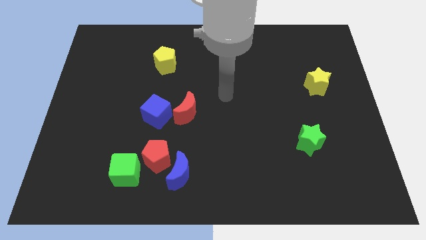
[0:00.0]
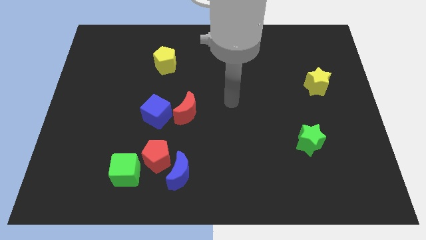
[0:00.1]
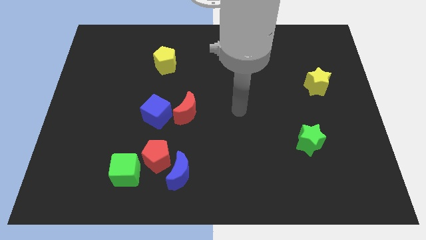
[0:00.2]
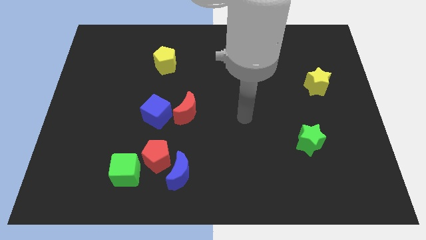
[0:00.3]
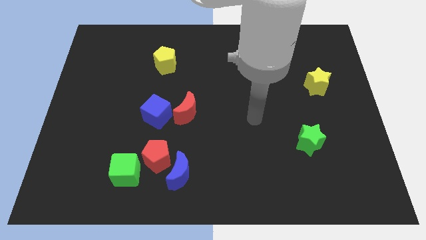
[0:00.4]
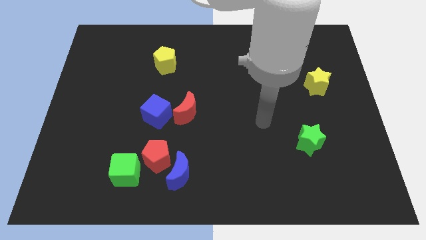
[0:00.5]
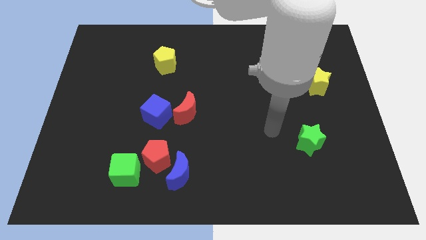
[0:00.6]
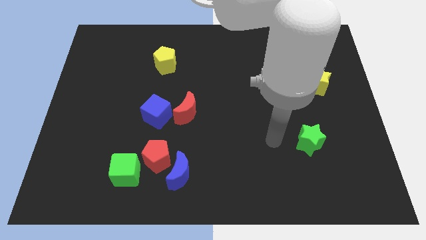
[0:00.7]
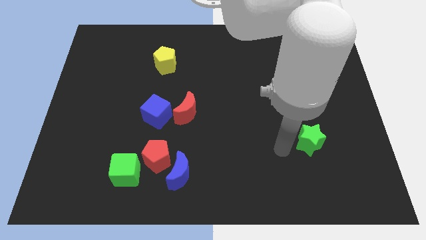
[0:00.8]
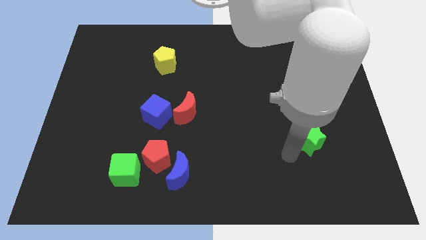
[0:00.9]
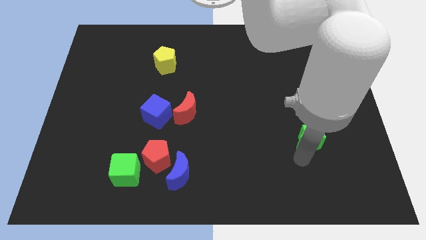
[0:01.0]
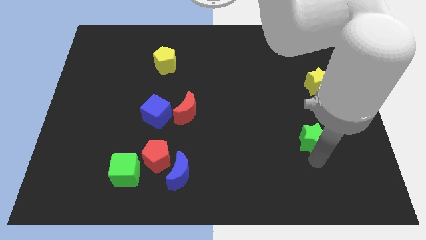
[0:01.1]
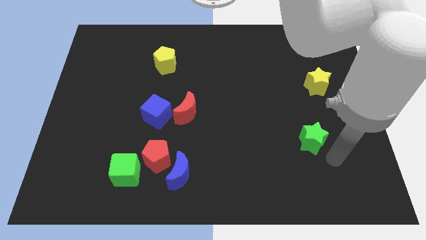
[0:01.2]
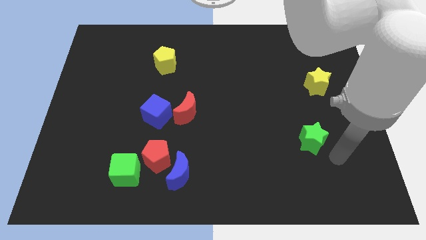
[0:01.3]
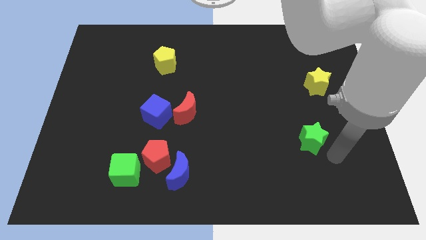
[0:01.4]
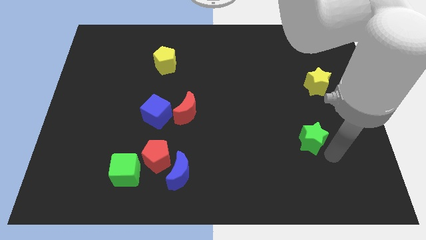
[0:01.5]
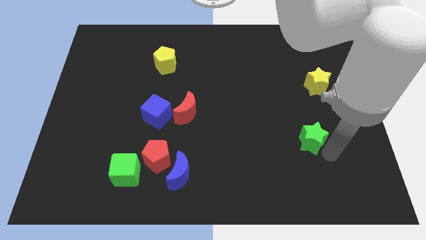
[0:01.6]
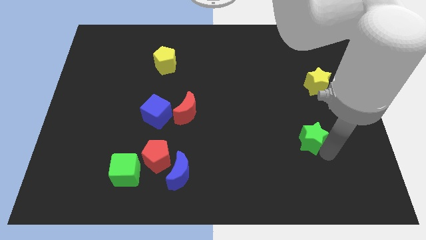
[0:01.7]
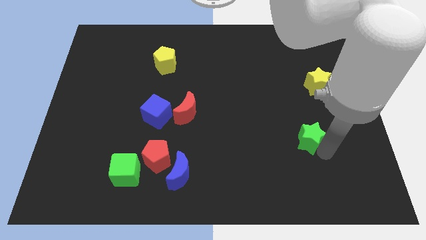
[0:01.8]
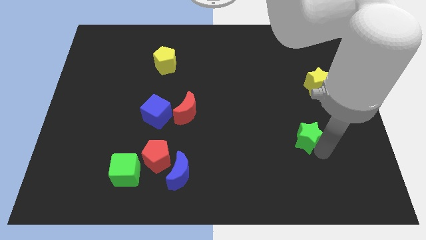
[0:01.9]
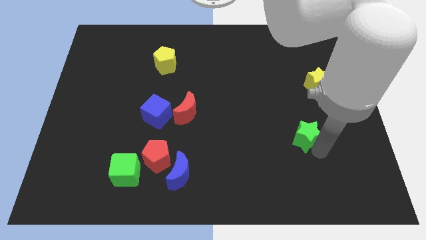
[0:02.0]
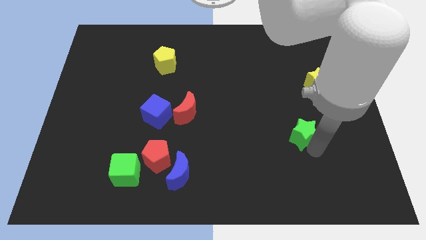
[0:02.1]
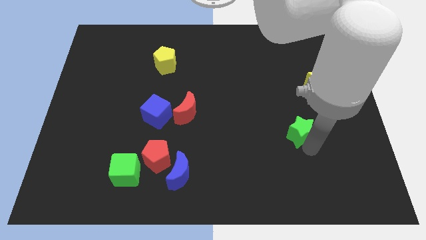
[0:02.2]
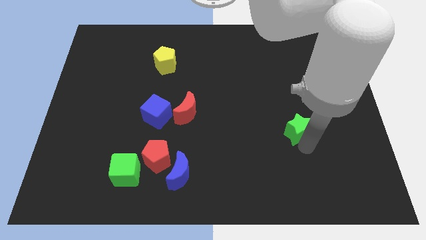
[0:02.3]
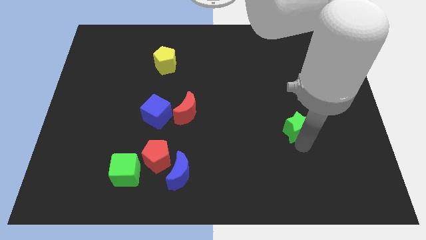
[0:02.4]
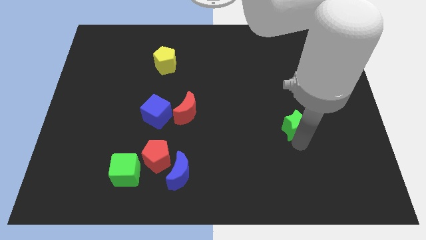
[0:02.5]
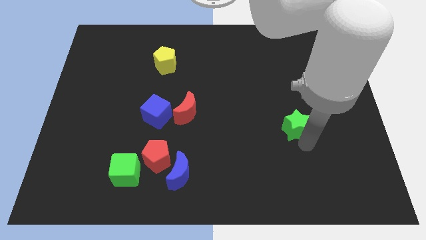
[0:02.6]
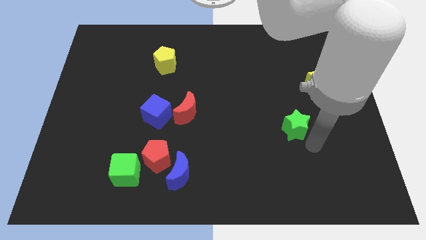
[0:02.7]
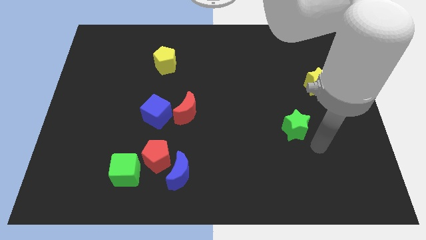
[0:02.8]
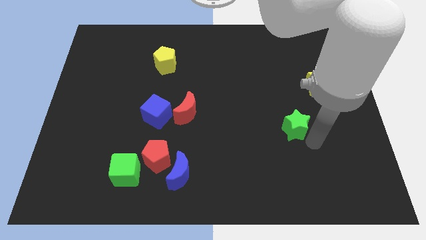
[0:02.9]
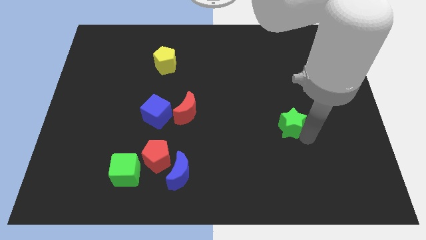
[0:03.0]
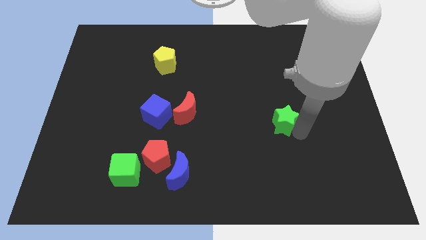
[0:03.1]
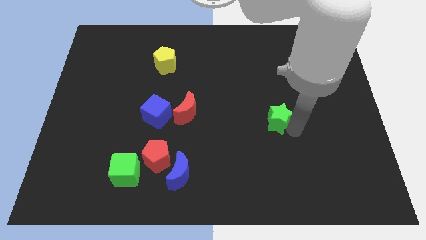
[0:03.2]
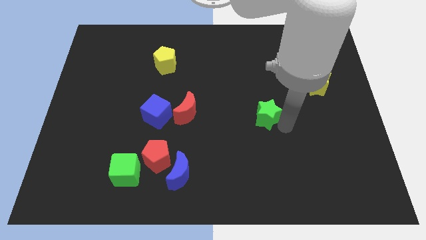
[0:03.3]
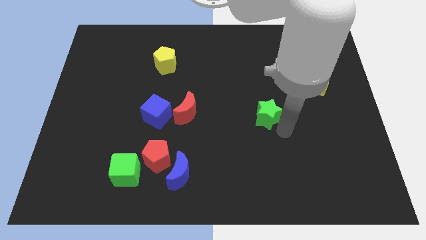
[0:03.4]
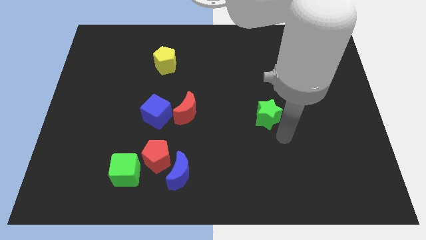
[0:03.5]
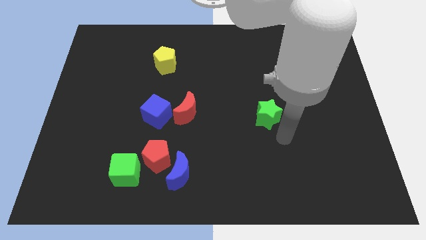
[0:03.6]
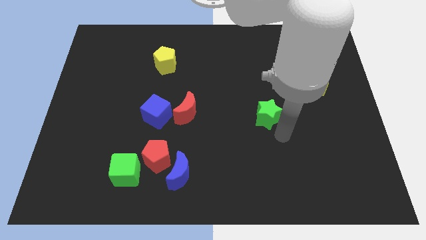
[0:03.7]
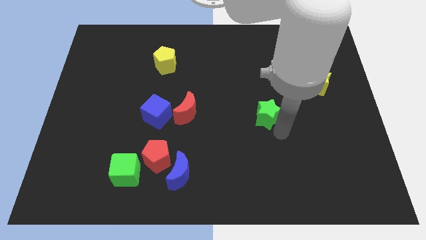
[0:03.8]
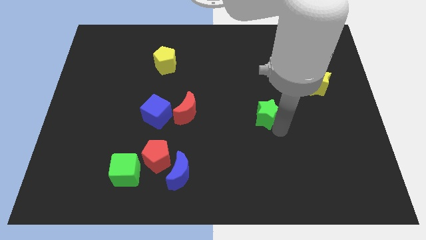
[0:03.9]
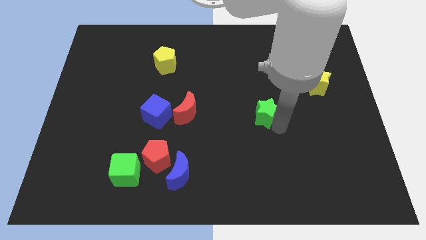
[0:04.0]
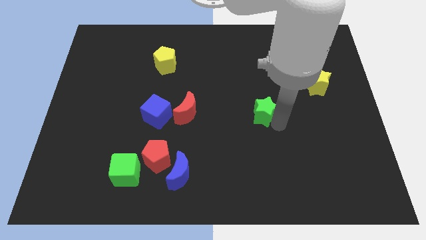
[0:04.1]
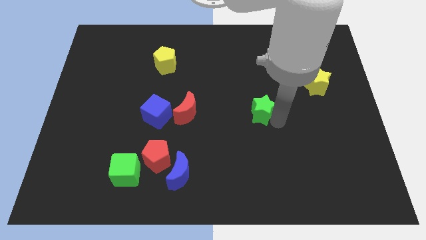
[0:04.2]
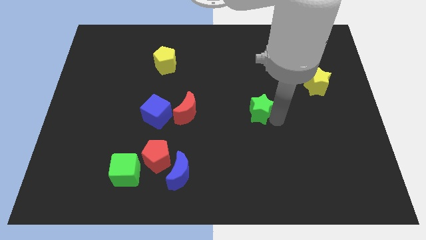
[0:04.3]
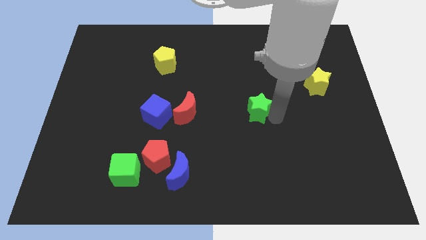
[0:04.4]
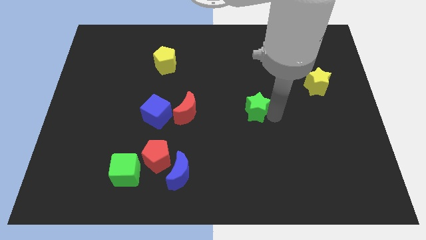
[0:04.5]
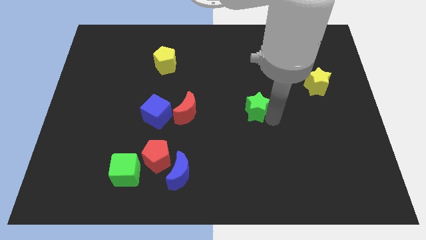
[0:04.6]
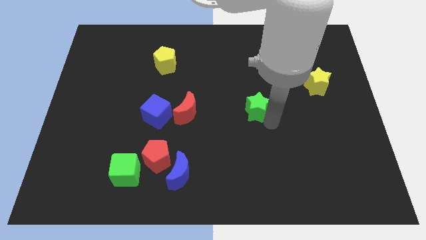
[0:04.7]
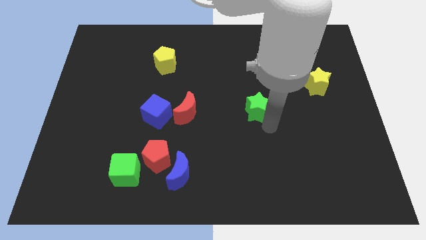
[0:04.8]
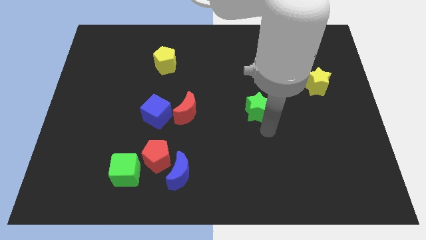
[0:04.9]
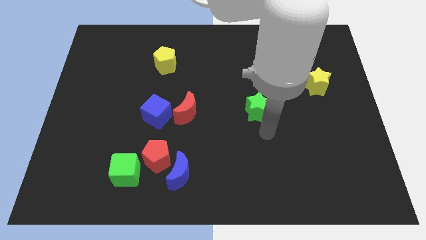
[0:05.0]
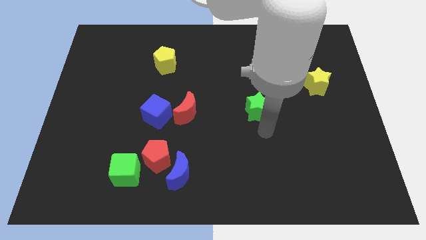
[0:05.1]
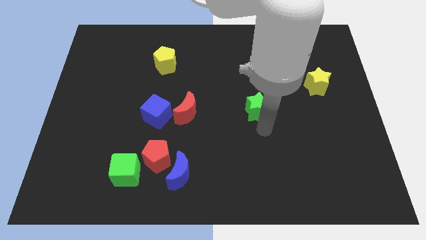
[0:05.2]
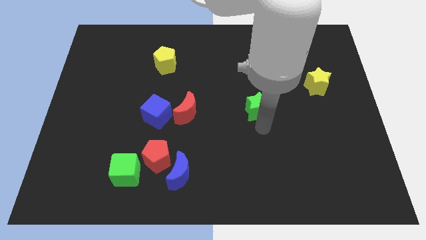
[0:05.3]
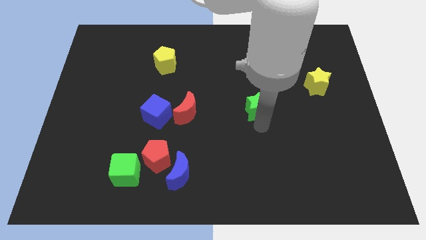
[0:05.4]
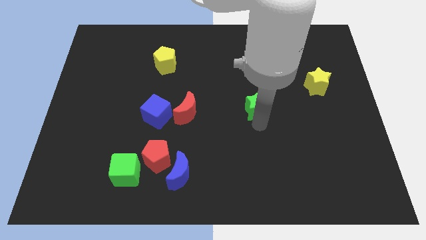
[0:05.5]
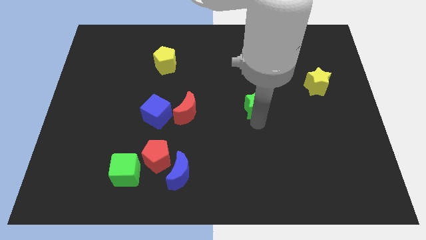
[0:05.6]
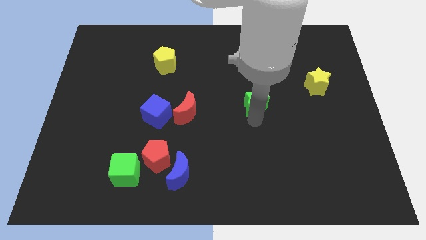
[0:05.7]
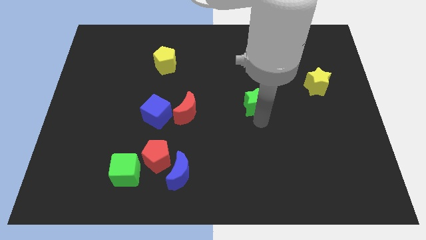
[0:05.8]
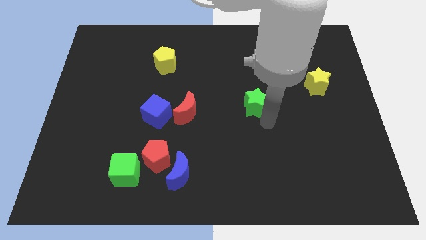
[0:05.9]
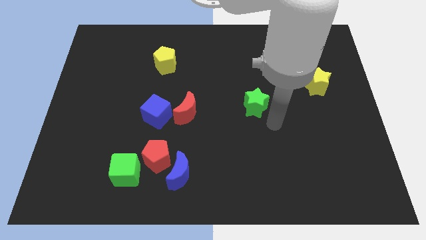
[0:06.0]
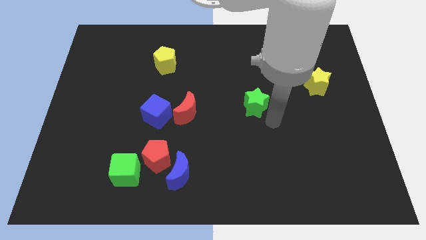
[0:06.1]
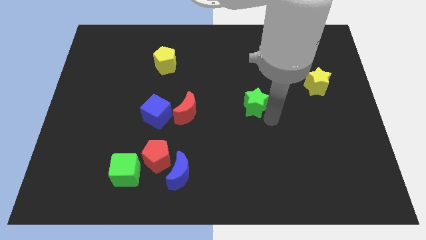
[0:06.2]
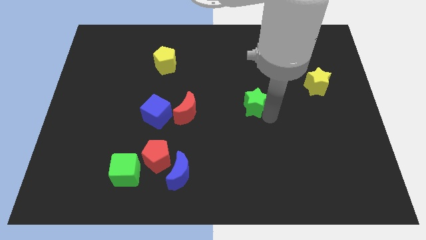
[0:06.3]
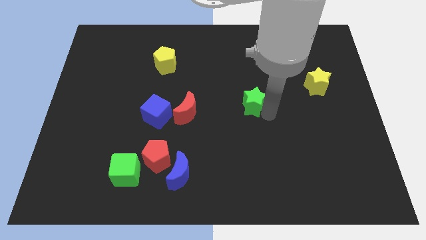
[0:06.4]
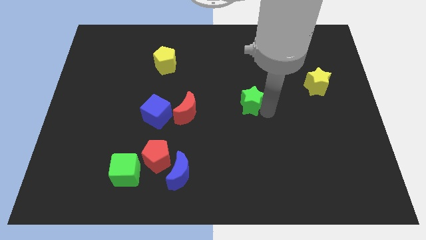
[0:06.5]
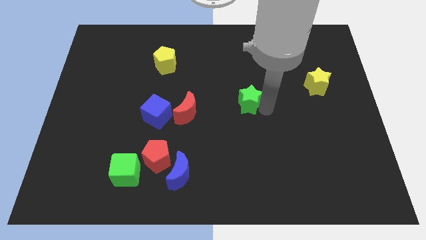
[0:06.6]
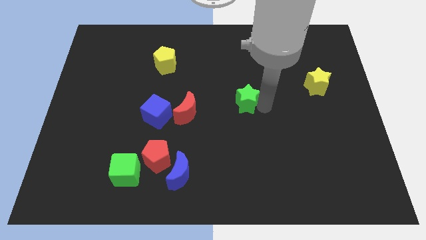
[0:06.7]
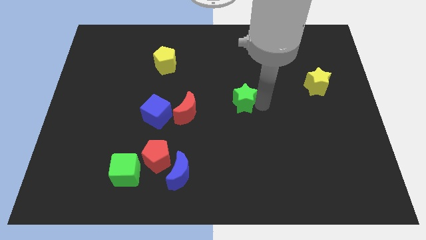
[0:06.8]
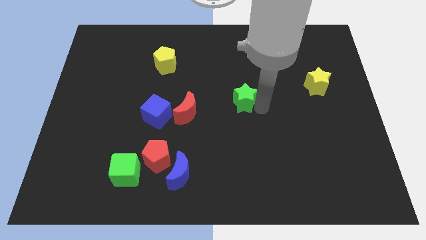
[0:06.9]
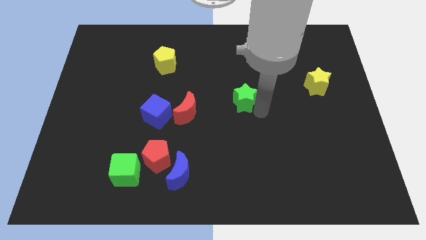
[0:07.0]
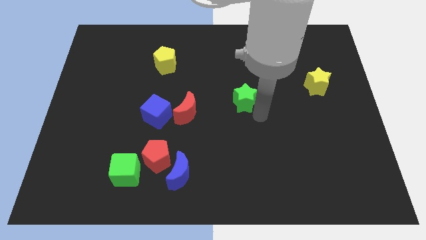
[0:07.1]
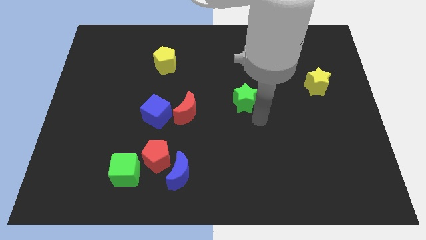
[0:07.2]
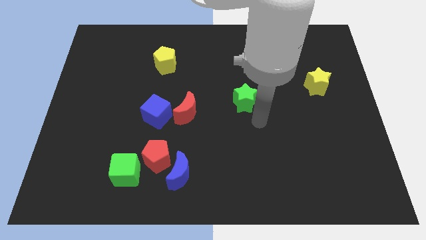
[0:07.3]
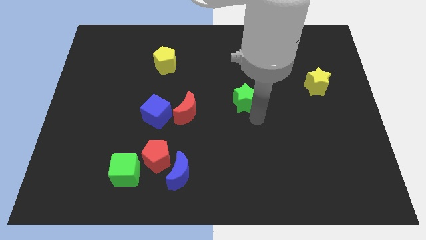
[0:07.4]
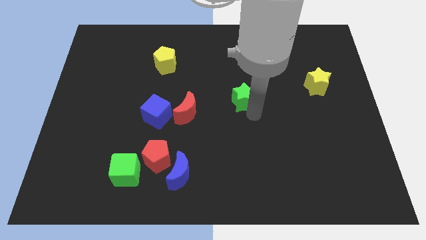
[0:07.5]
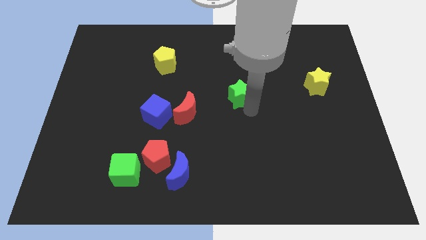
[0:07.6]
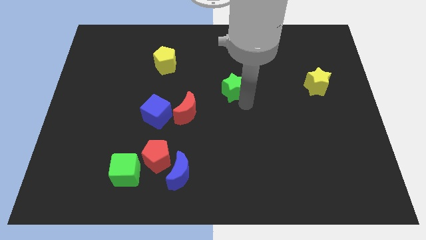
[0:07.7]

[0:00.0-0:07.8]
slide the green star up and then left

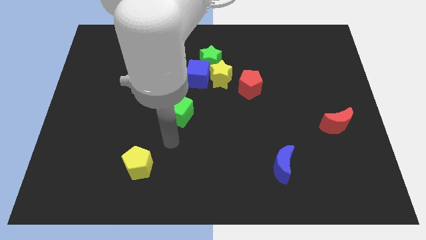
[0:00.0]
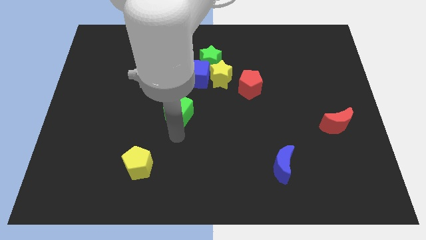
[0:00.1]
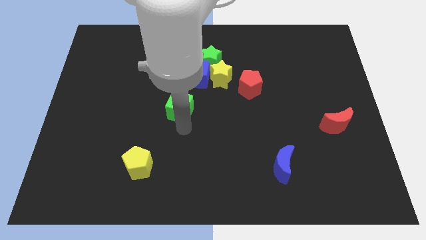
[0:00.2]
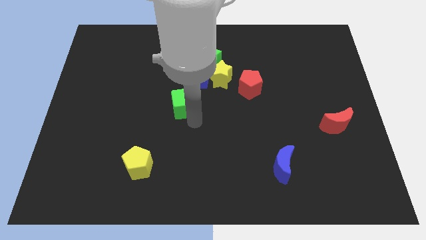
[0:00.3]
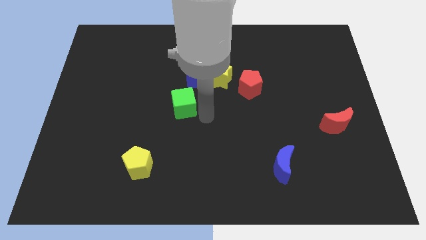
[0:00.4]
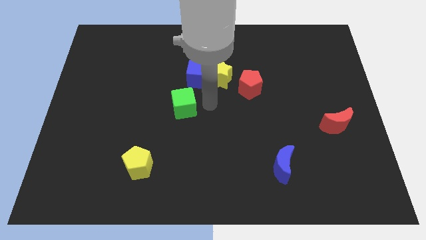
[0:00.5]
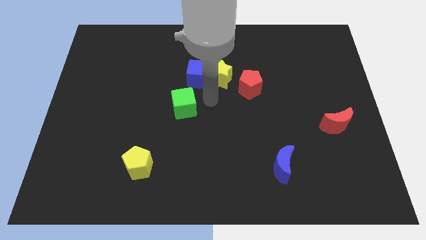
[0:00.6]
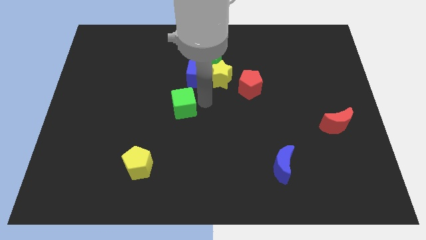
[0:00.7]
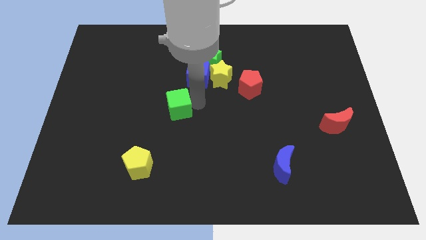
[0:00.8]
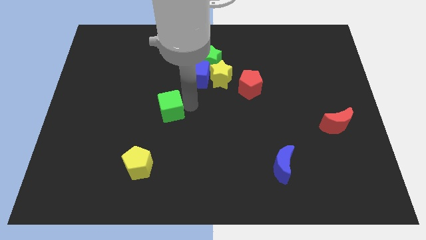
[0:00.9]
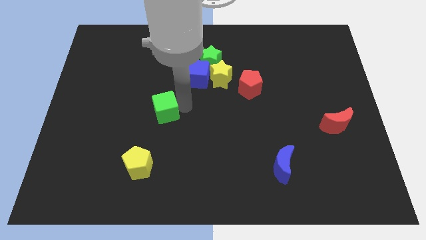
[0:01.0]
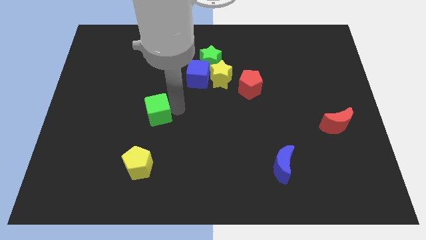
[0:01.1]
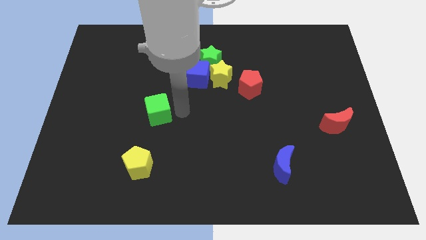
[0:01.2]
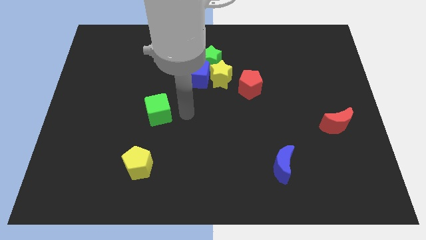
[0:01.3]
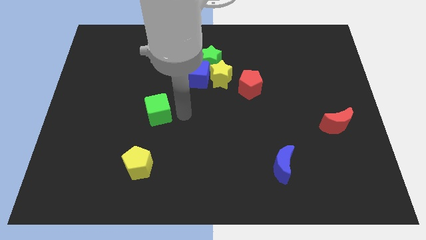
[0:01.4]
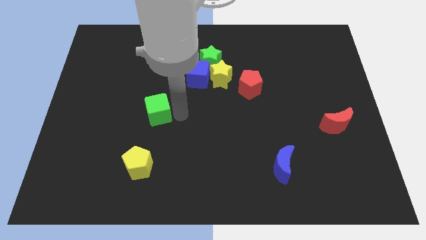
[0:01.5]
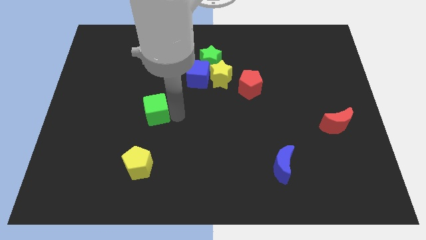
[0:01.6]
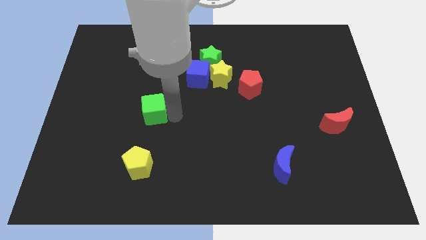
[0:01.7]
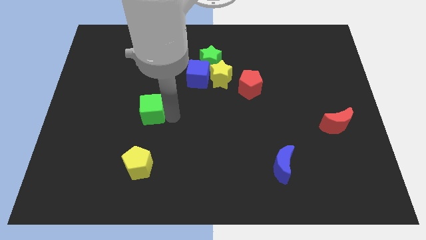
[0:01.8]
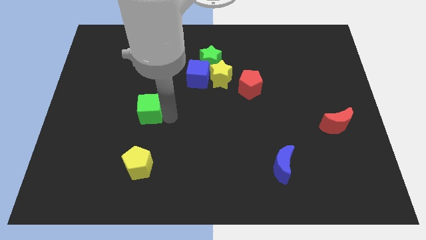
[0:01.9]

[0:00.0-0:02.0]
push the green cube left a little bit
